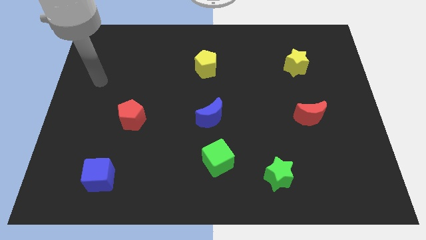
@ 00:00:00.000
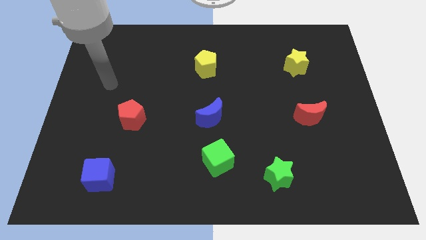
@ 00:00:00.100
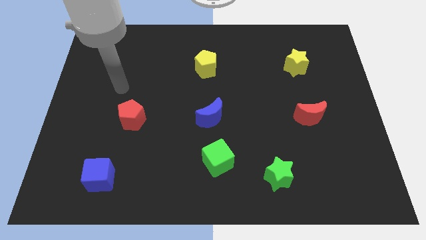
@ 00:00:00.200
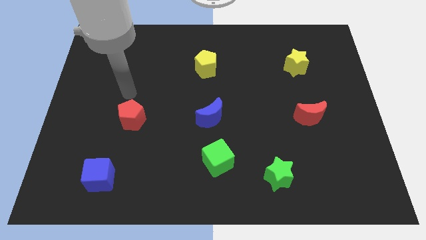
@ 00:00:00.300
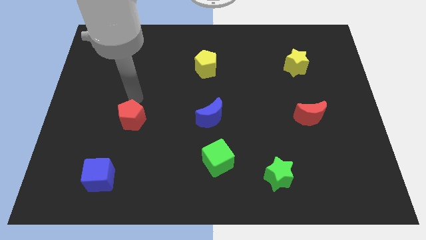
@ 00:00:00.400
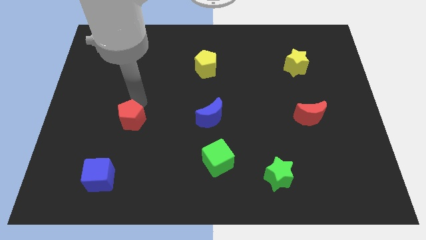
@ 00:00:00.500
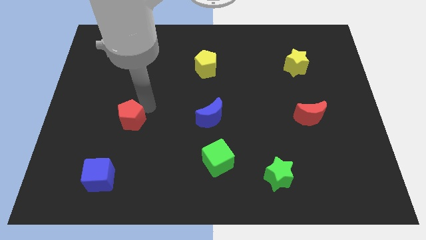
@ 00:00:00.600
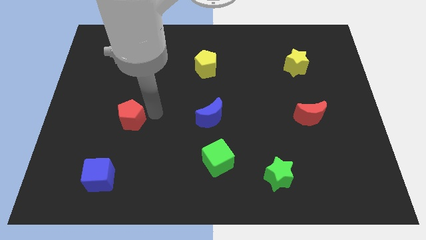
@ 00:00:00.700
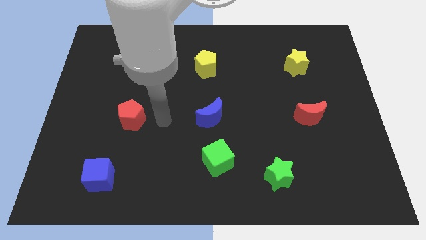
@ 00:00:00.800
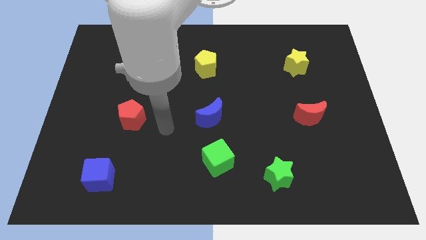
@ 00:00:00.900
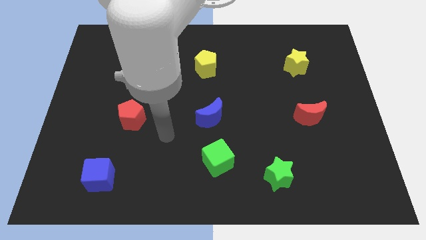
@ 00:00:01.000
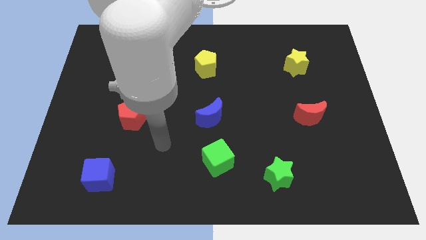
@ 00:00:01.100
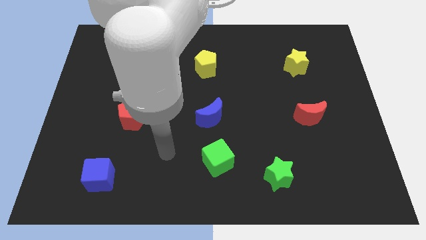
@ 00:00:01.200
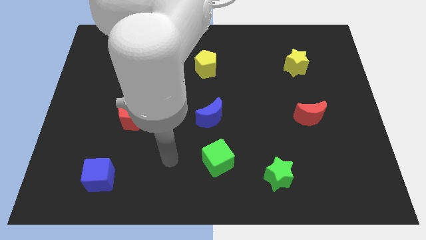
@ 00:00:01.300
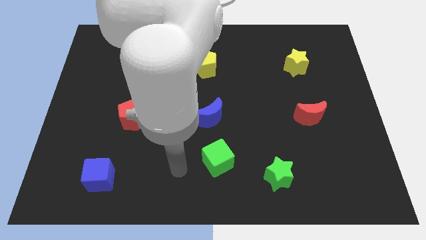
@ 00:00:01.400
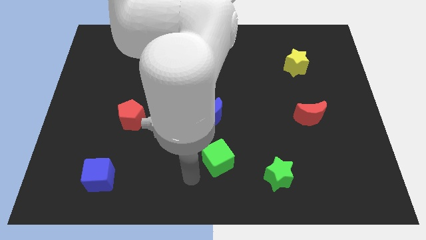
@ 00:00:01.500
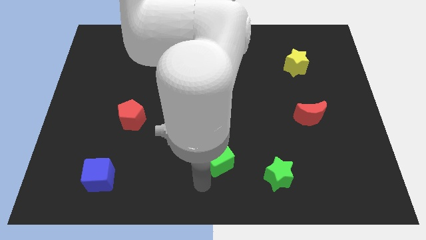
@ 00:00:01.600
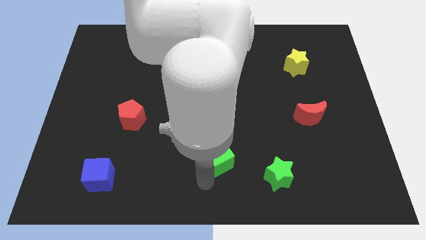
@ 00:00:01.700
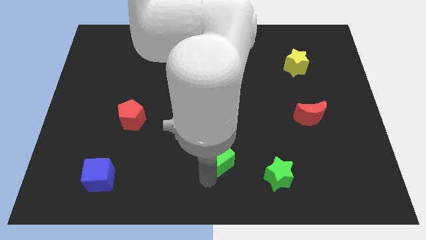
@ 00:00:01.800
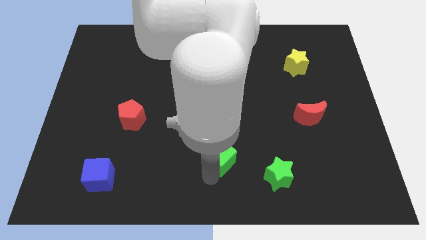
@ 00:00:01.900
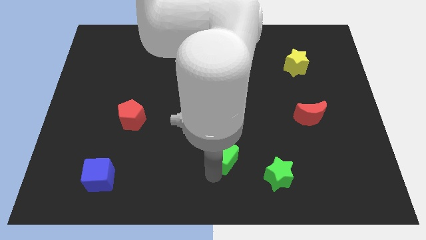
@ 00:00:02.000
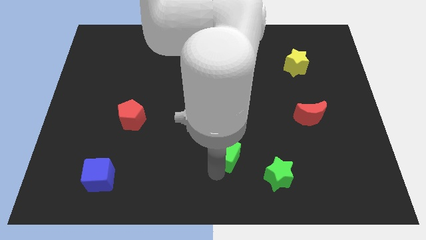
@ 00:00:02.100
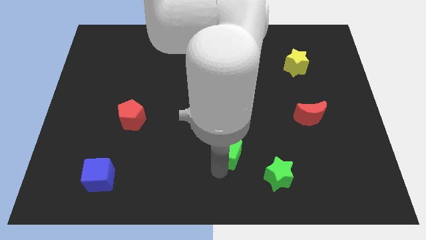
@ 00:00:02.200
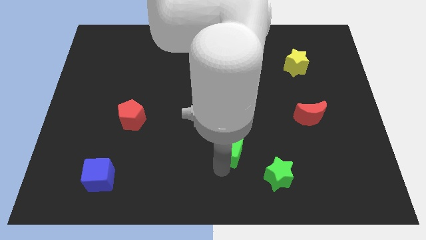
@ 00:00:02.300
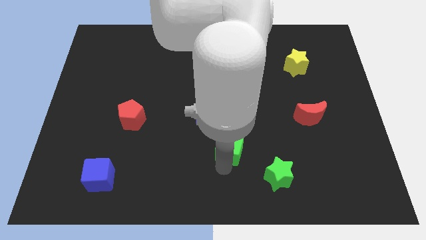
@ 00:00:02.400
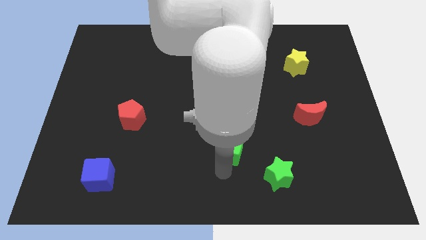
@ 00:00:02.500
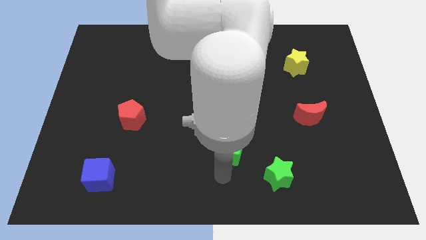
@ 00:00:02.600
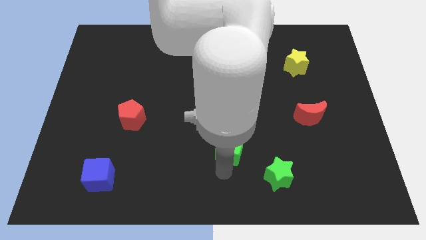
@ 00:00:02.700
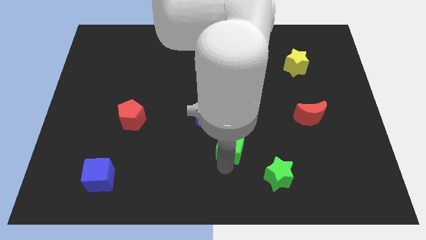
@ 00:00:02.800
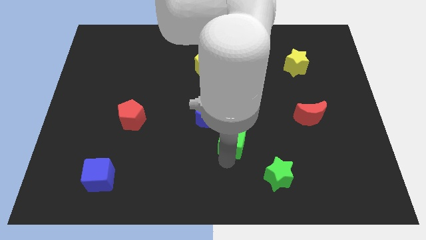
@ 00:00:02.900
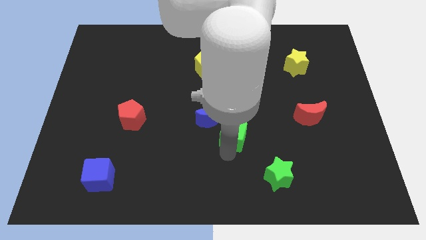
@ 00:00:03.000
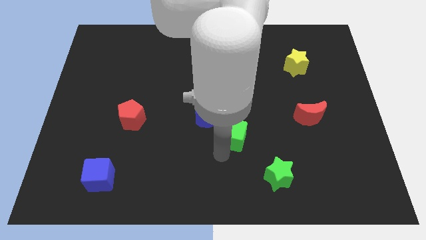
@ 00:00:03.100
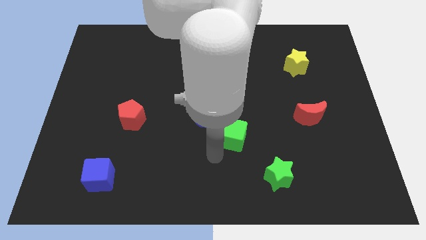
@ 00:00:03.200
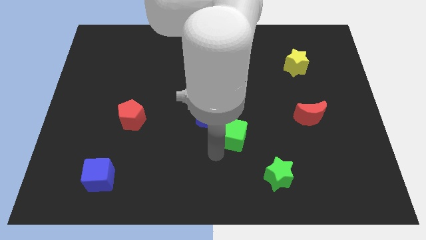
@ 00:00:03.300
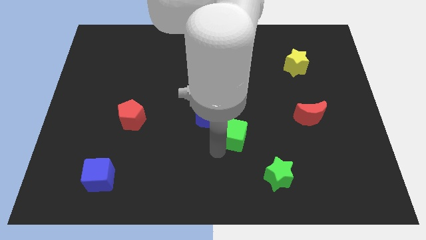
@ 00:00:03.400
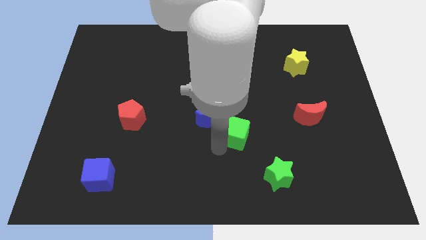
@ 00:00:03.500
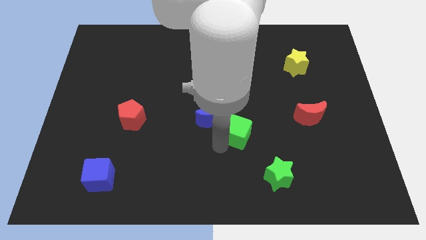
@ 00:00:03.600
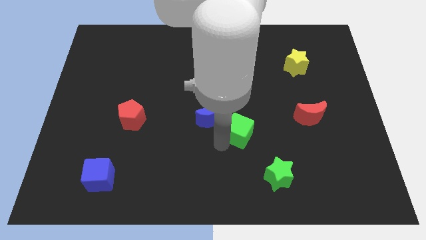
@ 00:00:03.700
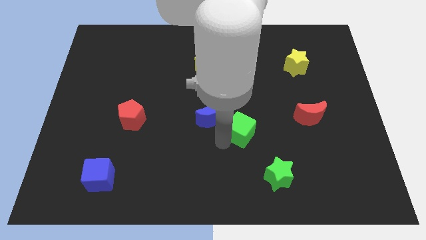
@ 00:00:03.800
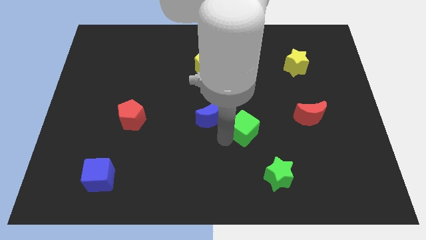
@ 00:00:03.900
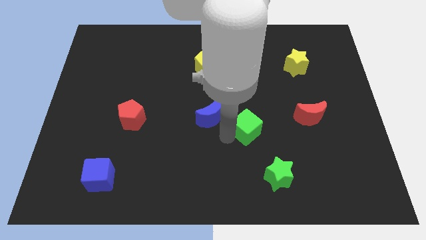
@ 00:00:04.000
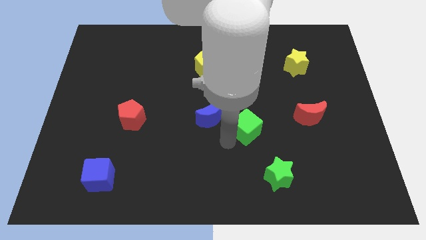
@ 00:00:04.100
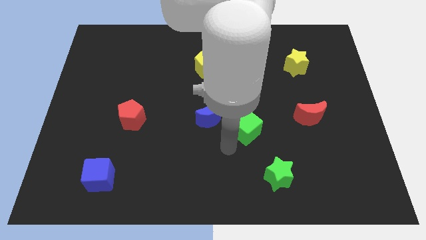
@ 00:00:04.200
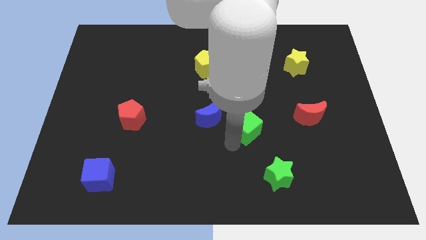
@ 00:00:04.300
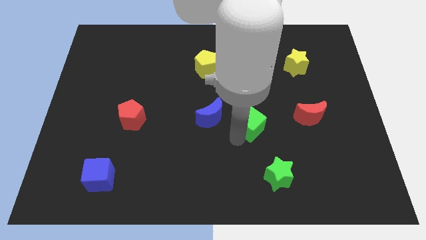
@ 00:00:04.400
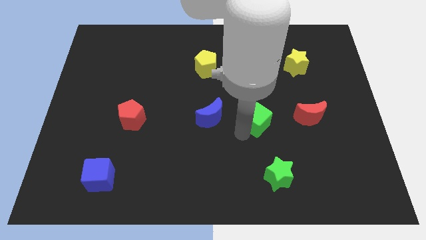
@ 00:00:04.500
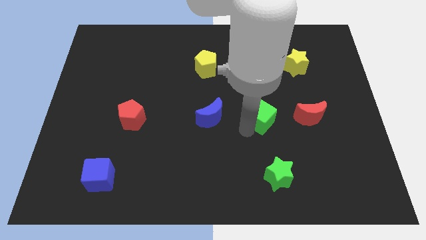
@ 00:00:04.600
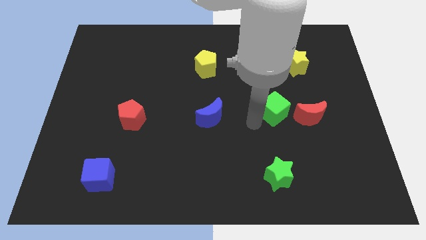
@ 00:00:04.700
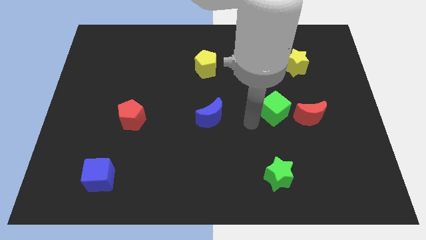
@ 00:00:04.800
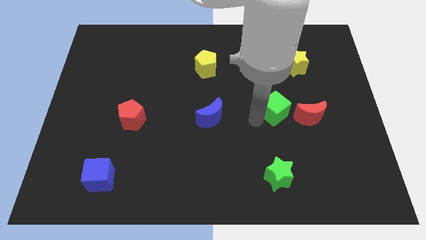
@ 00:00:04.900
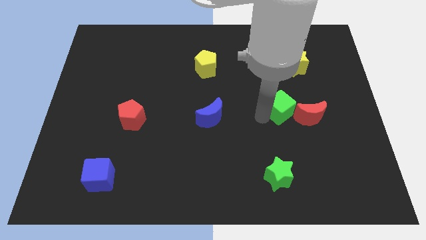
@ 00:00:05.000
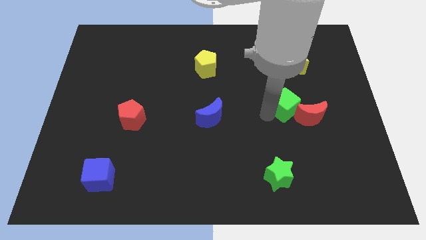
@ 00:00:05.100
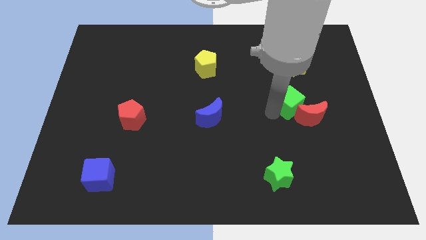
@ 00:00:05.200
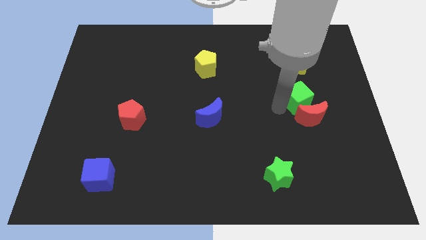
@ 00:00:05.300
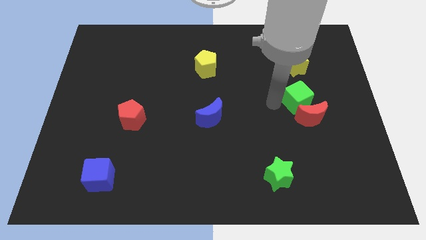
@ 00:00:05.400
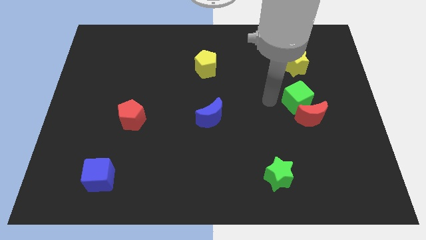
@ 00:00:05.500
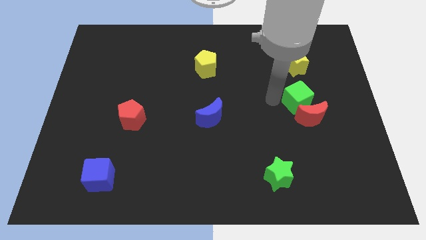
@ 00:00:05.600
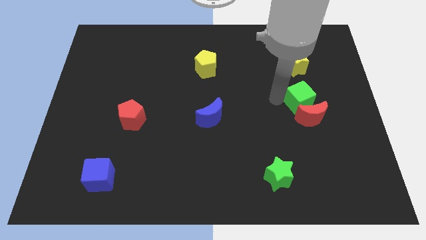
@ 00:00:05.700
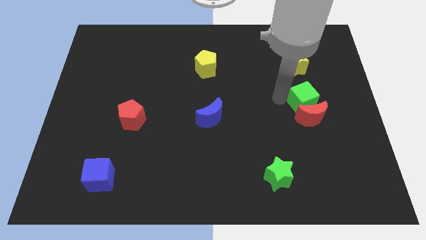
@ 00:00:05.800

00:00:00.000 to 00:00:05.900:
move the green cube to the top right side of the red moon

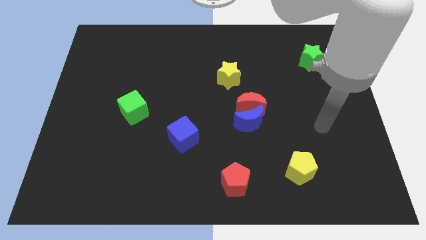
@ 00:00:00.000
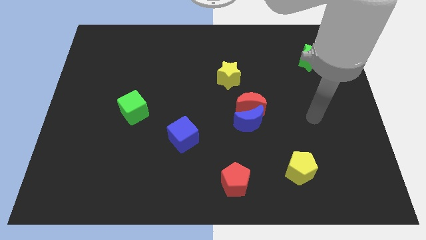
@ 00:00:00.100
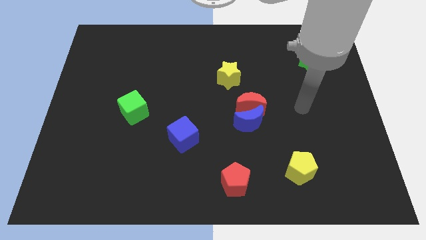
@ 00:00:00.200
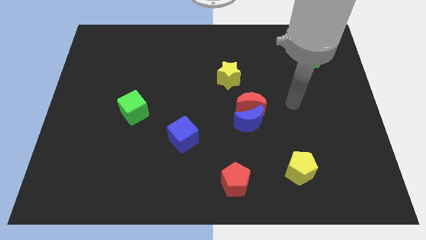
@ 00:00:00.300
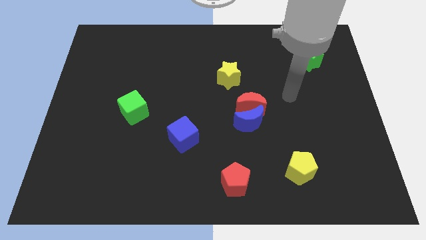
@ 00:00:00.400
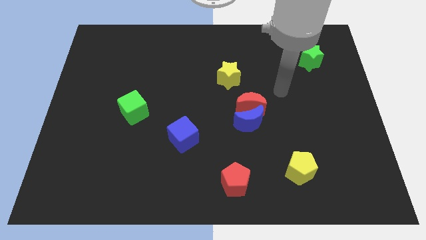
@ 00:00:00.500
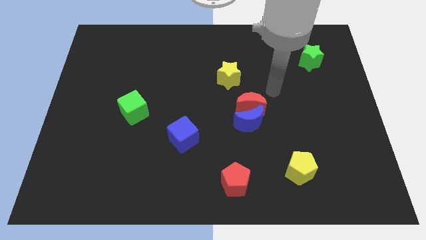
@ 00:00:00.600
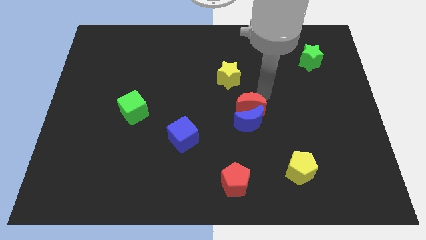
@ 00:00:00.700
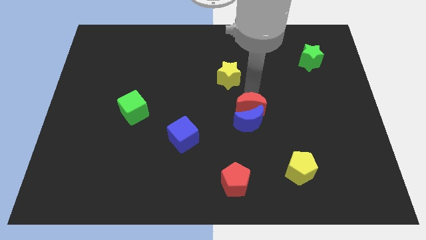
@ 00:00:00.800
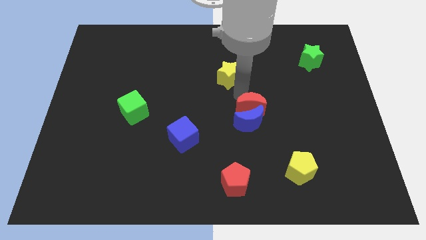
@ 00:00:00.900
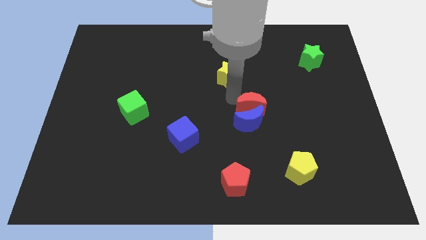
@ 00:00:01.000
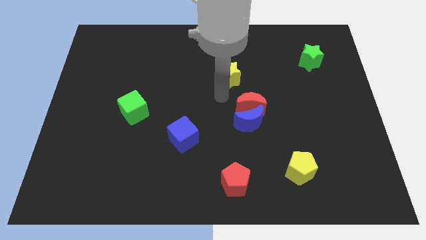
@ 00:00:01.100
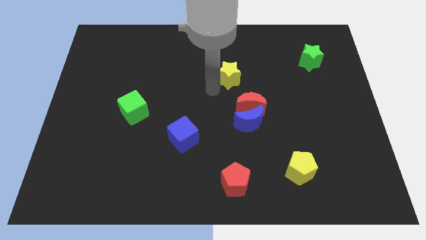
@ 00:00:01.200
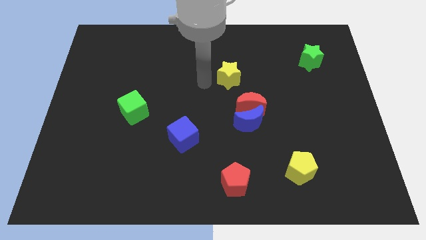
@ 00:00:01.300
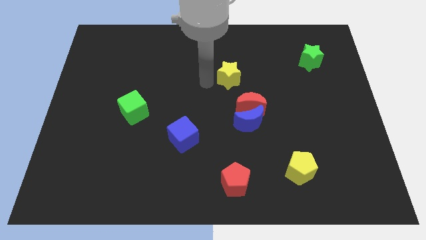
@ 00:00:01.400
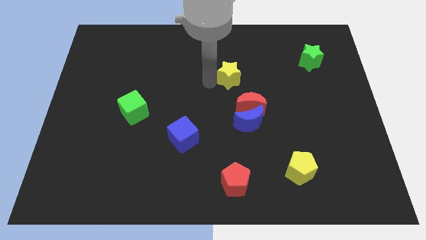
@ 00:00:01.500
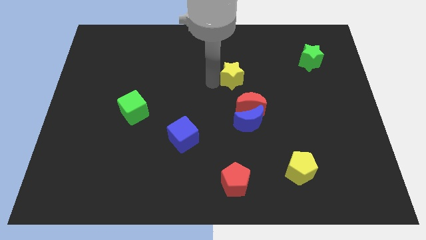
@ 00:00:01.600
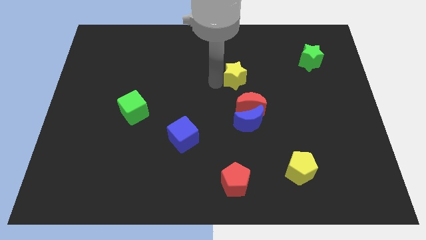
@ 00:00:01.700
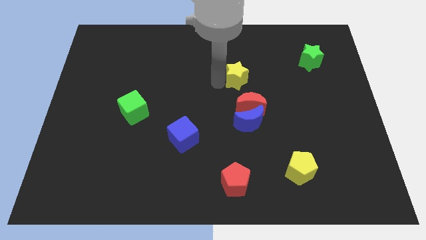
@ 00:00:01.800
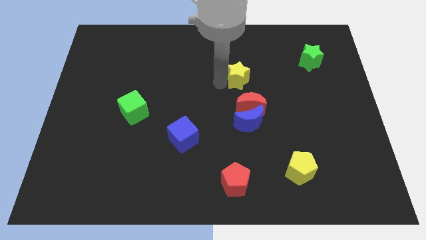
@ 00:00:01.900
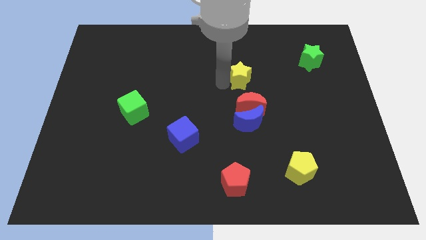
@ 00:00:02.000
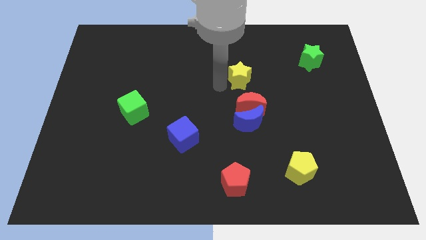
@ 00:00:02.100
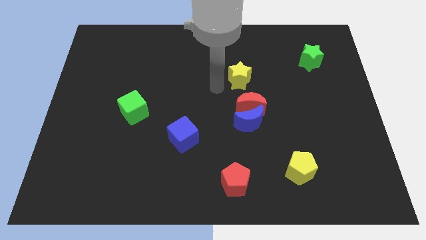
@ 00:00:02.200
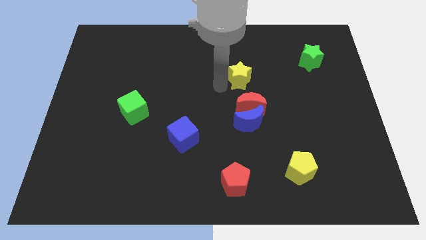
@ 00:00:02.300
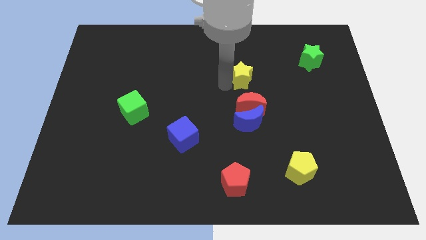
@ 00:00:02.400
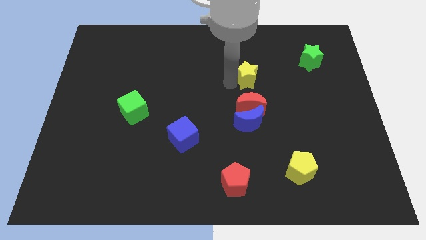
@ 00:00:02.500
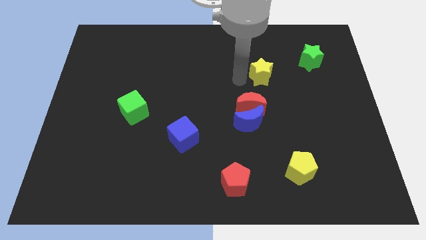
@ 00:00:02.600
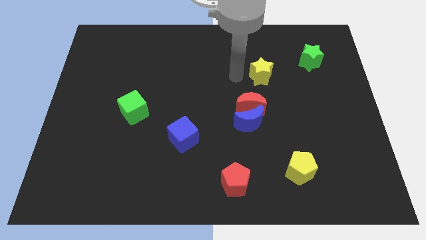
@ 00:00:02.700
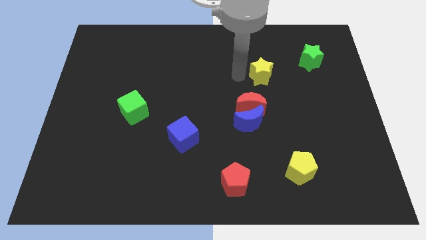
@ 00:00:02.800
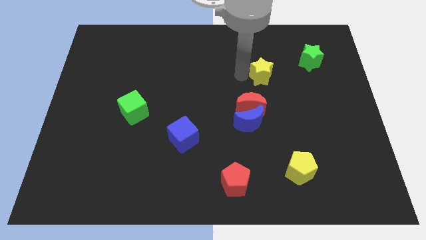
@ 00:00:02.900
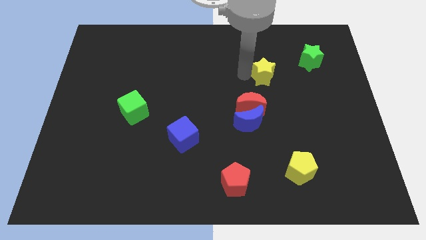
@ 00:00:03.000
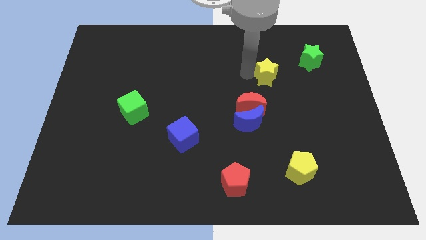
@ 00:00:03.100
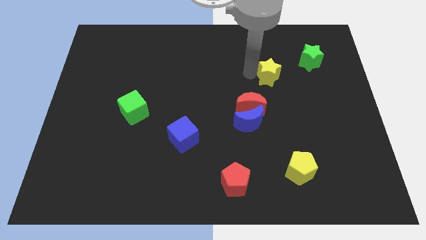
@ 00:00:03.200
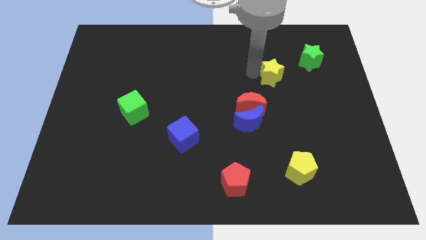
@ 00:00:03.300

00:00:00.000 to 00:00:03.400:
push the yellow star diagonally down and to the left of the green star
